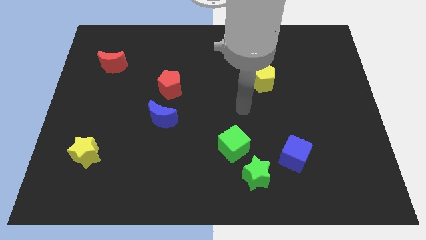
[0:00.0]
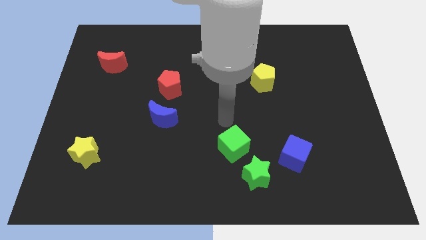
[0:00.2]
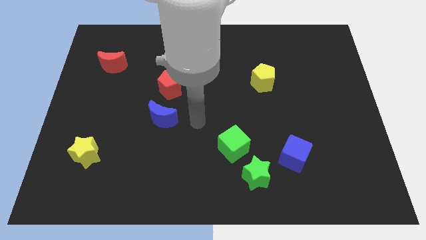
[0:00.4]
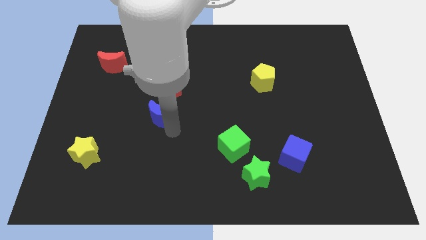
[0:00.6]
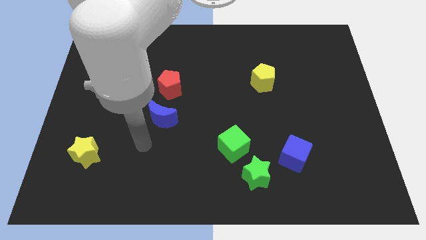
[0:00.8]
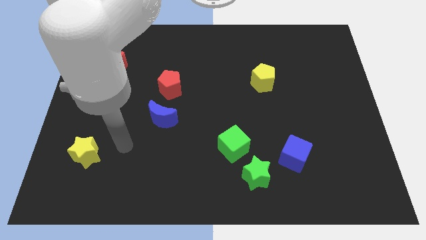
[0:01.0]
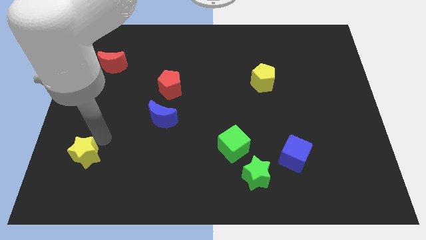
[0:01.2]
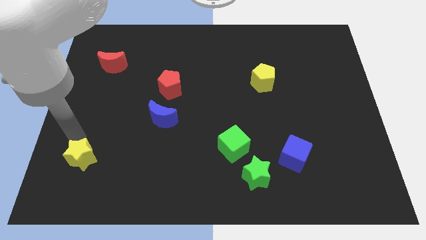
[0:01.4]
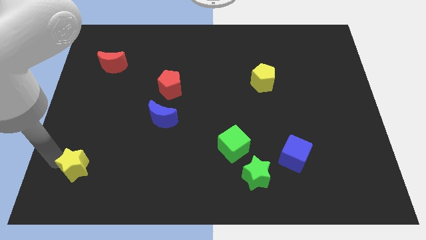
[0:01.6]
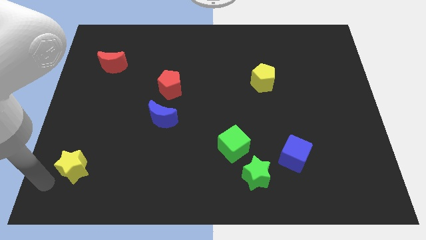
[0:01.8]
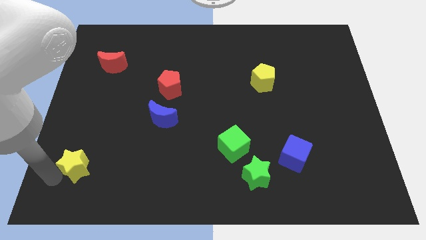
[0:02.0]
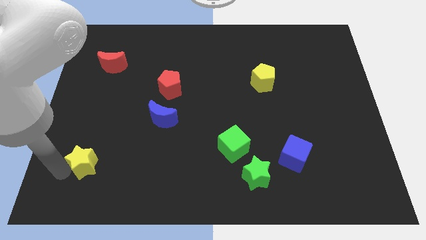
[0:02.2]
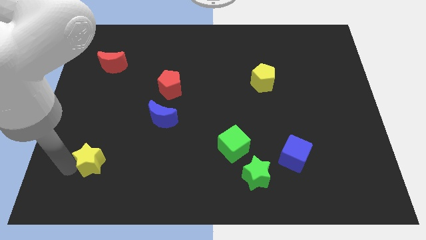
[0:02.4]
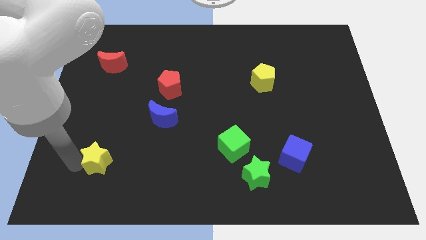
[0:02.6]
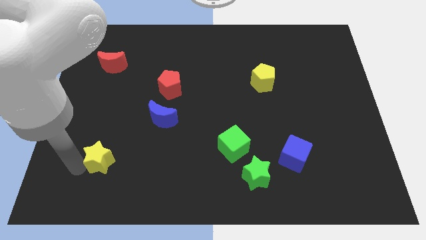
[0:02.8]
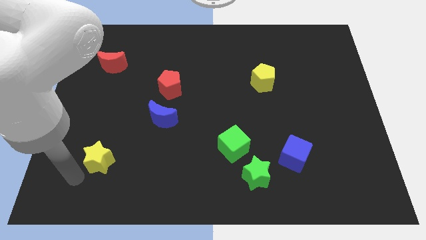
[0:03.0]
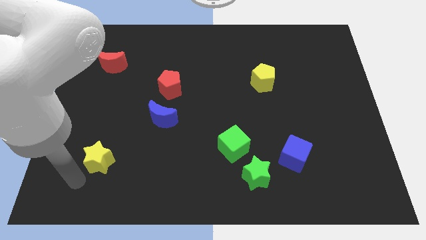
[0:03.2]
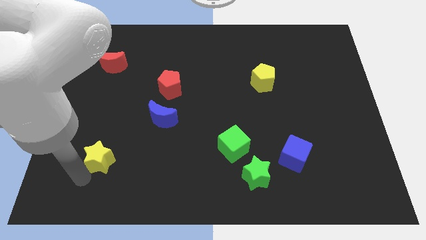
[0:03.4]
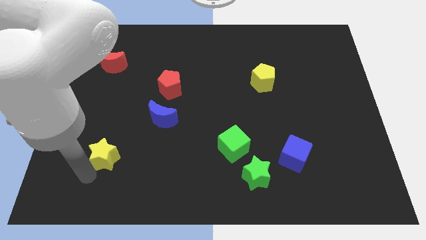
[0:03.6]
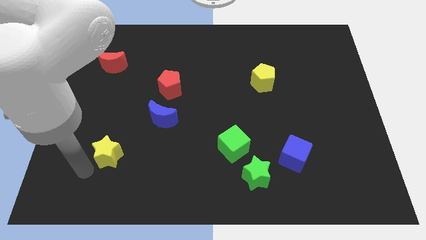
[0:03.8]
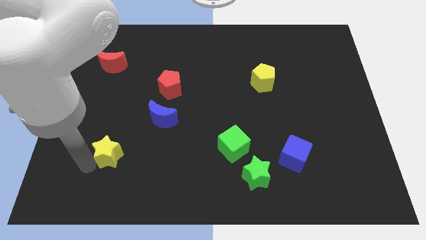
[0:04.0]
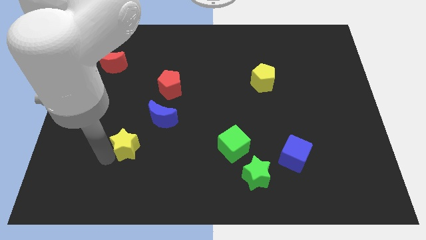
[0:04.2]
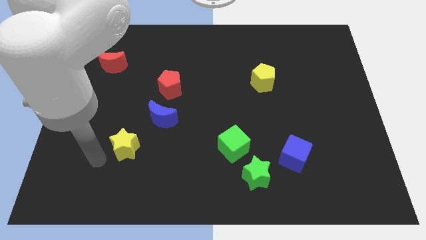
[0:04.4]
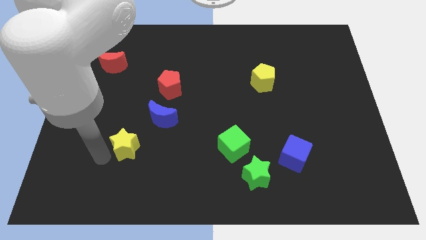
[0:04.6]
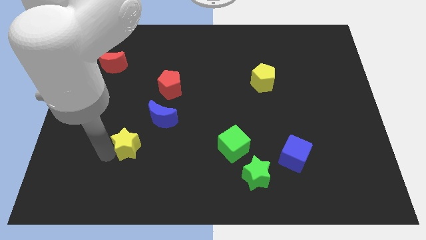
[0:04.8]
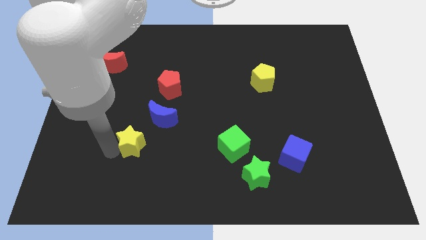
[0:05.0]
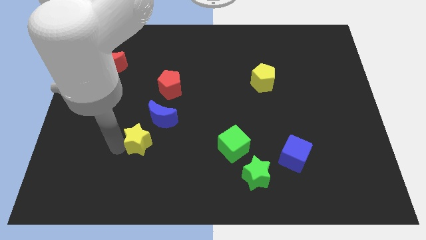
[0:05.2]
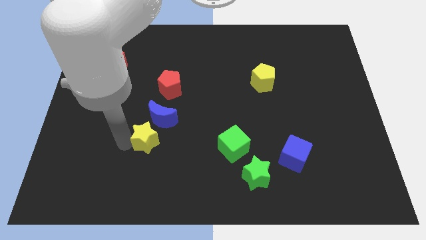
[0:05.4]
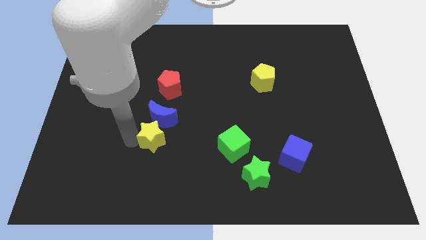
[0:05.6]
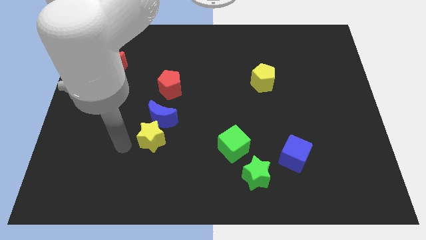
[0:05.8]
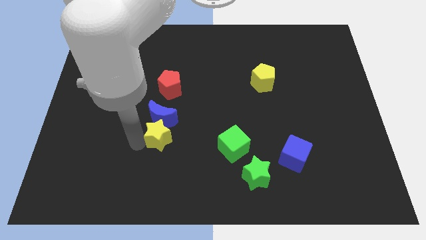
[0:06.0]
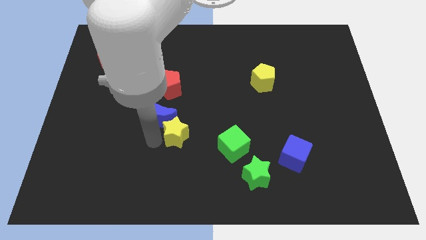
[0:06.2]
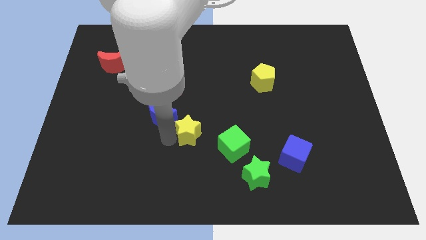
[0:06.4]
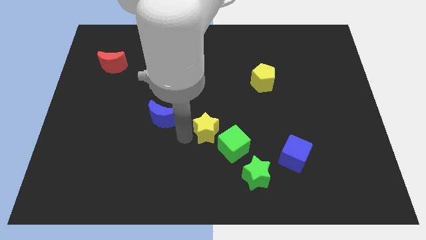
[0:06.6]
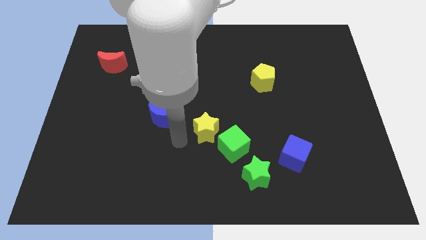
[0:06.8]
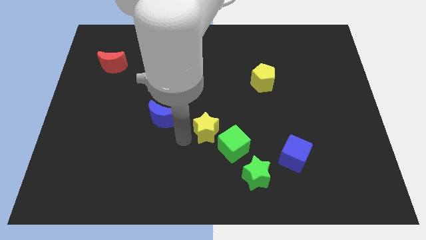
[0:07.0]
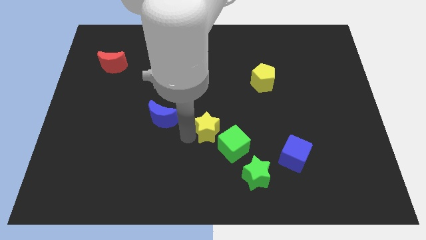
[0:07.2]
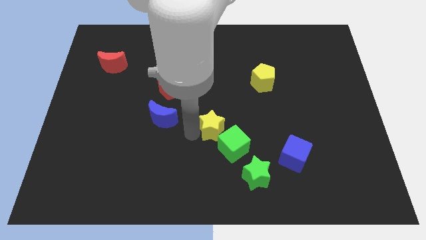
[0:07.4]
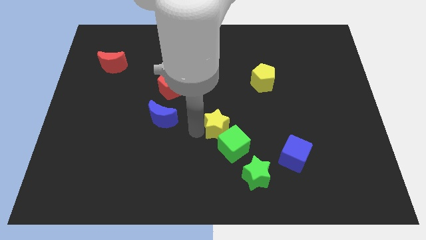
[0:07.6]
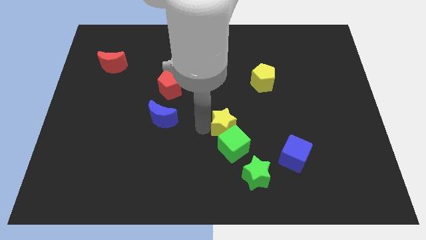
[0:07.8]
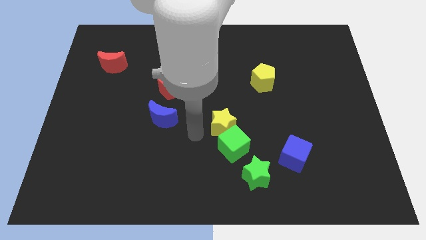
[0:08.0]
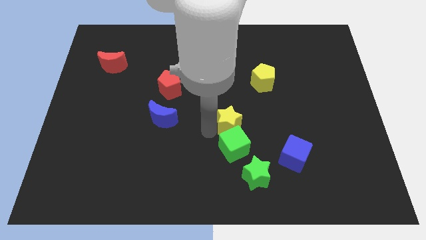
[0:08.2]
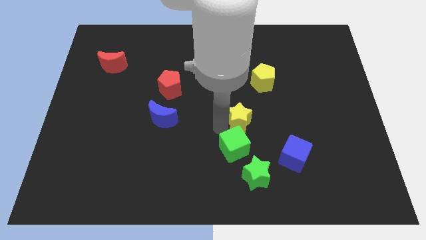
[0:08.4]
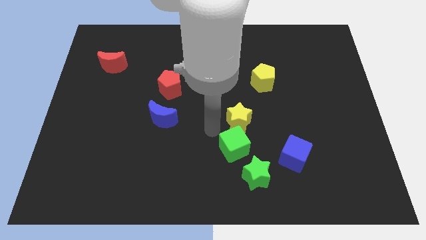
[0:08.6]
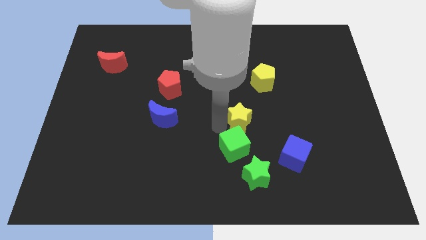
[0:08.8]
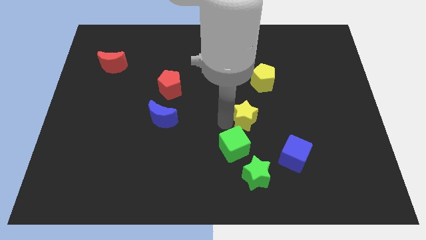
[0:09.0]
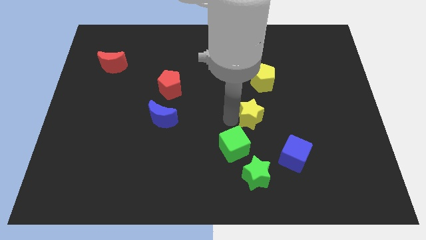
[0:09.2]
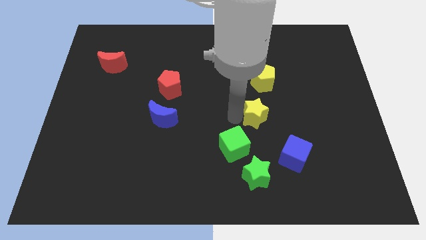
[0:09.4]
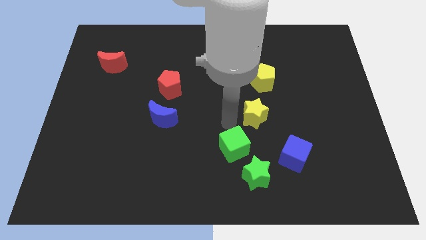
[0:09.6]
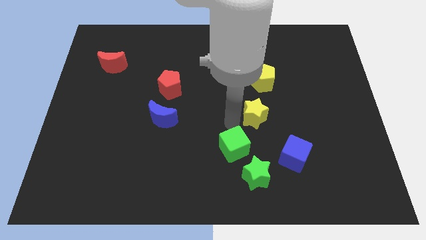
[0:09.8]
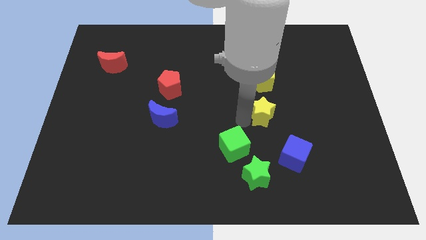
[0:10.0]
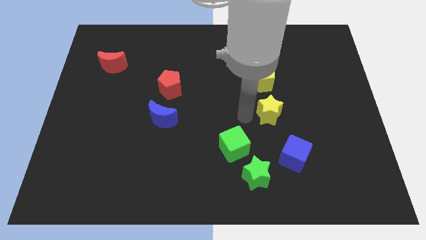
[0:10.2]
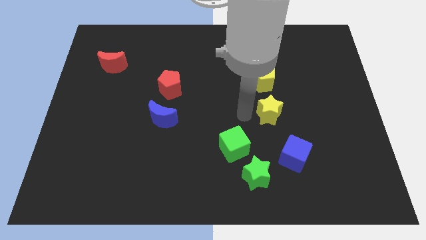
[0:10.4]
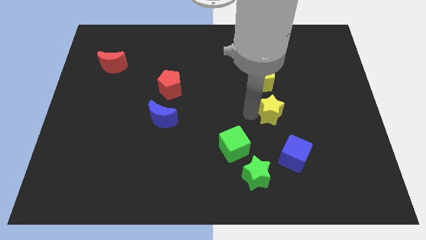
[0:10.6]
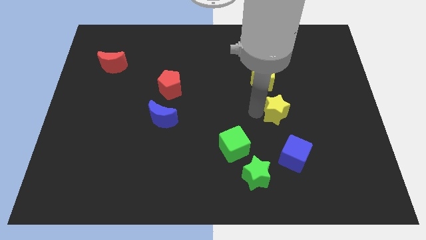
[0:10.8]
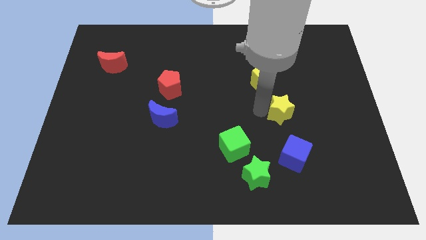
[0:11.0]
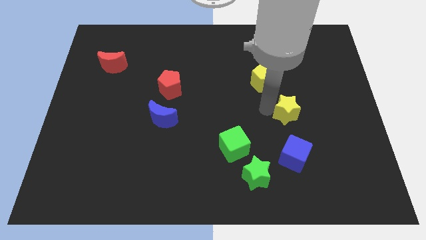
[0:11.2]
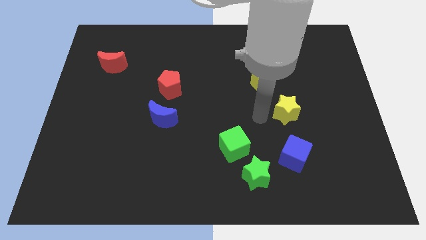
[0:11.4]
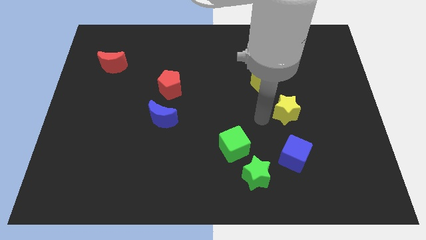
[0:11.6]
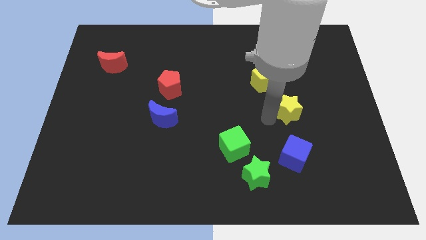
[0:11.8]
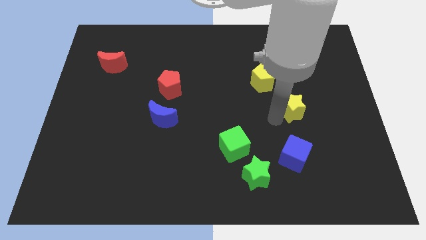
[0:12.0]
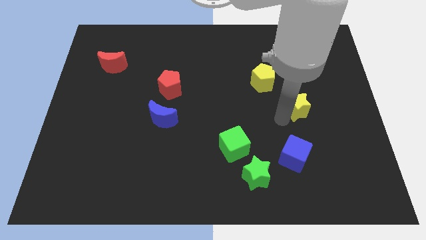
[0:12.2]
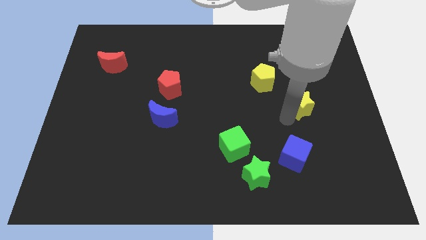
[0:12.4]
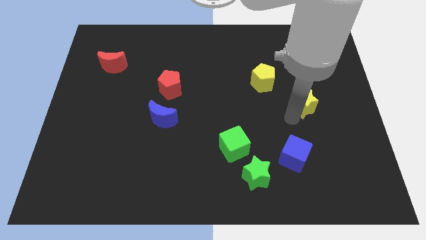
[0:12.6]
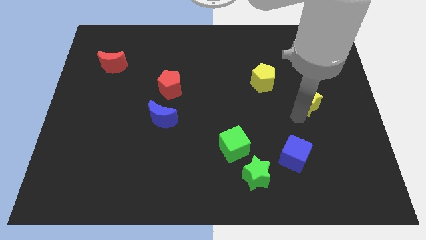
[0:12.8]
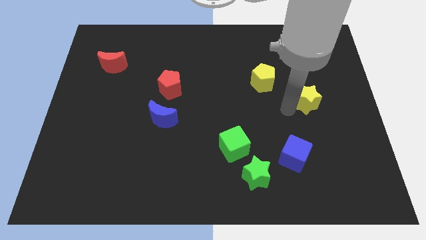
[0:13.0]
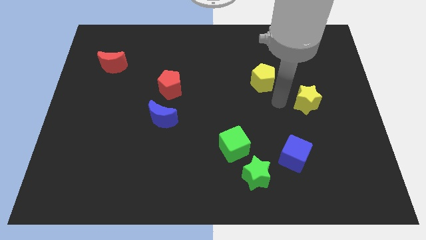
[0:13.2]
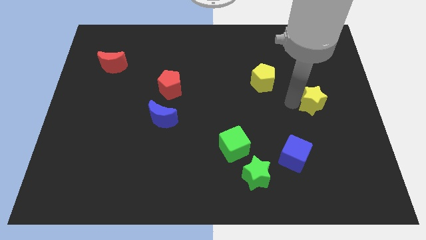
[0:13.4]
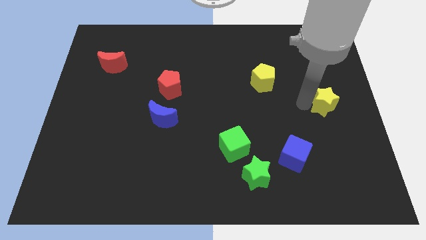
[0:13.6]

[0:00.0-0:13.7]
put the yellow star to the center right
